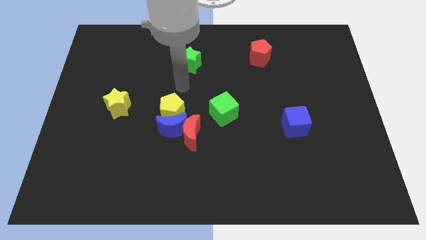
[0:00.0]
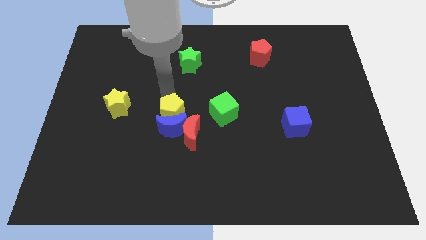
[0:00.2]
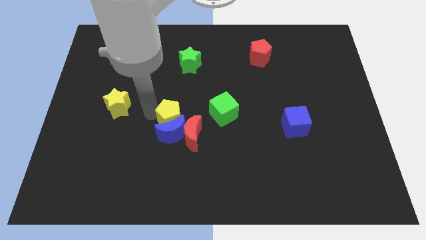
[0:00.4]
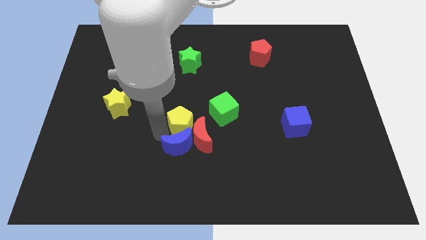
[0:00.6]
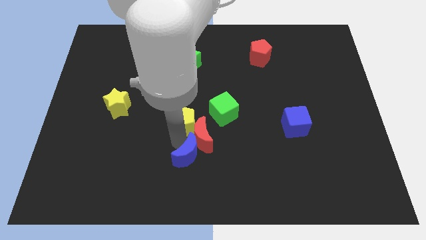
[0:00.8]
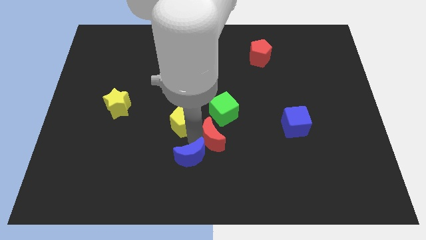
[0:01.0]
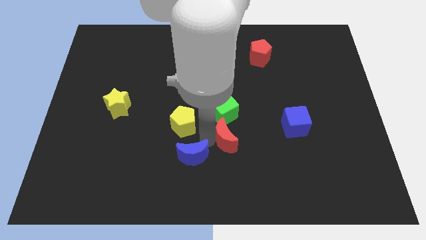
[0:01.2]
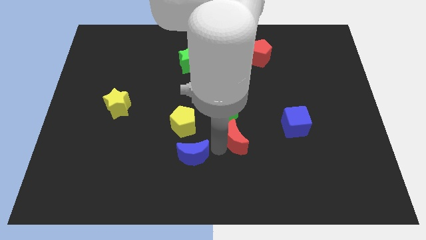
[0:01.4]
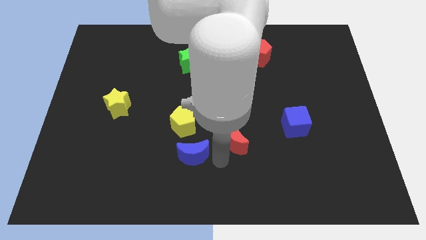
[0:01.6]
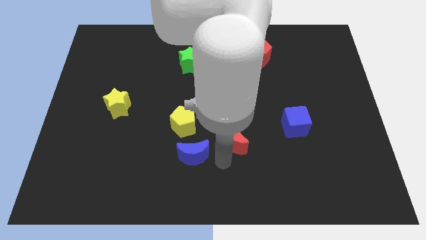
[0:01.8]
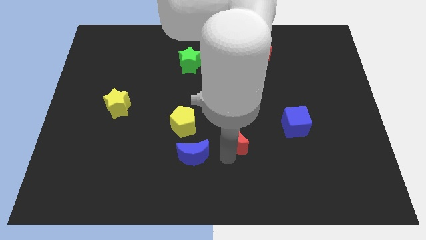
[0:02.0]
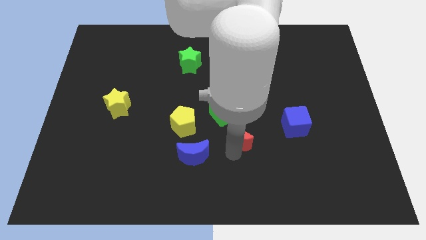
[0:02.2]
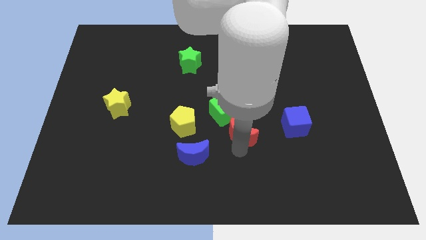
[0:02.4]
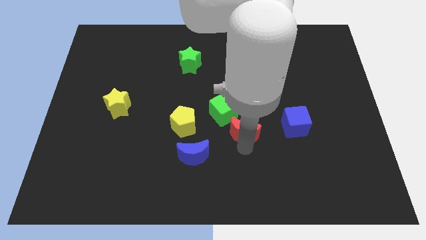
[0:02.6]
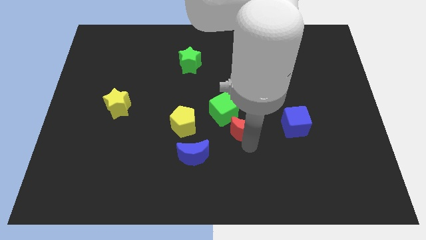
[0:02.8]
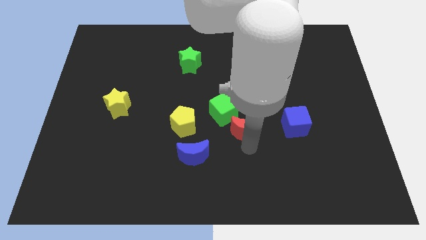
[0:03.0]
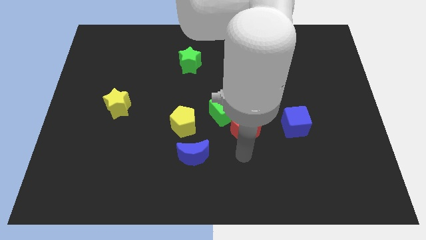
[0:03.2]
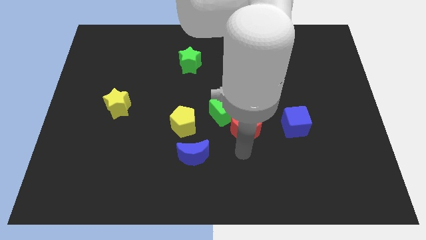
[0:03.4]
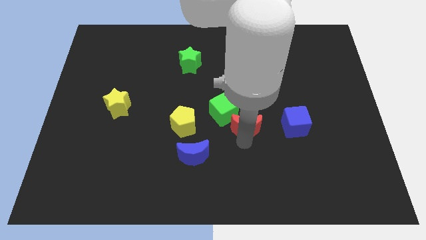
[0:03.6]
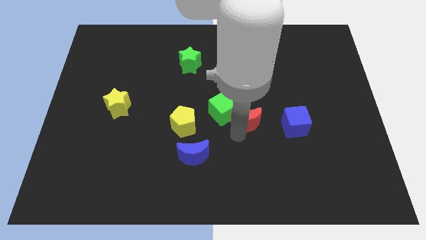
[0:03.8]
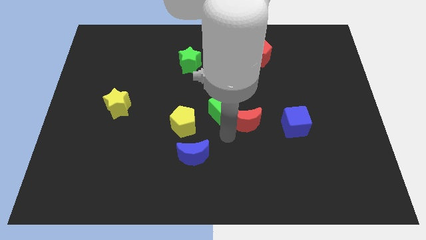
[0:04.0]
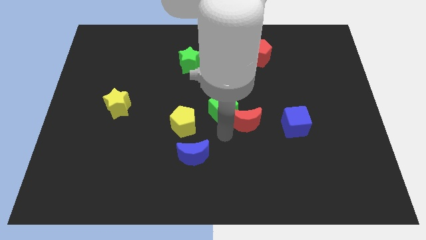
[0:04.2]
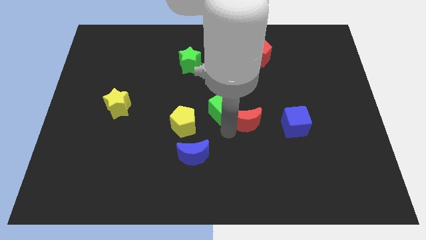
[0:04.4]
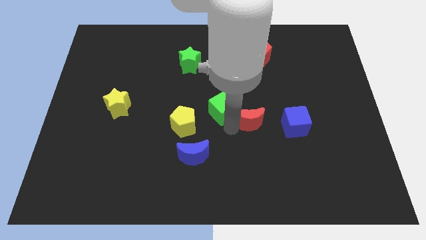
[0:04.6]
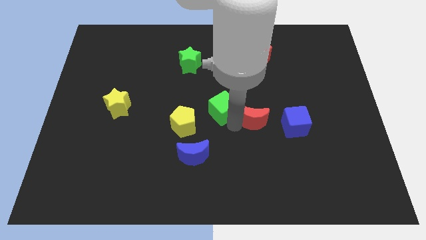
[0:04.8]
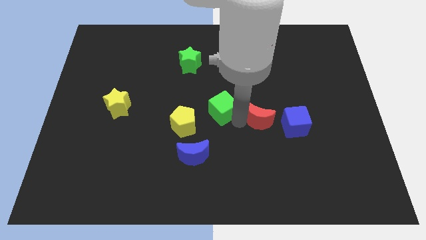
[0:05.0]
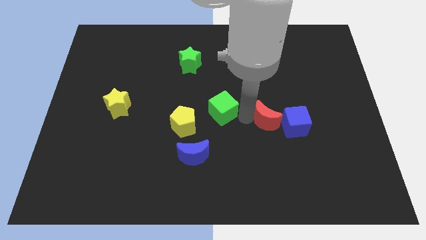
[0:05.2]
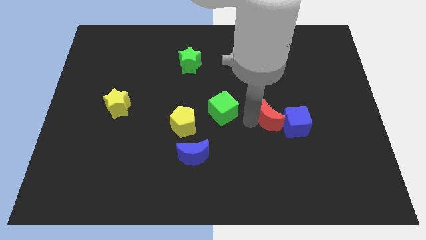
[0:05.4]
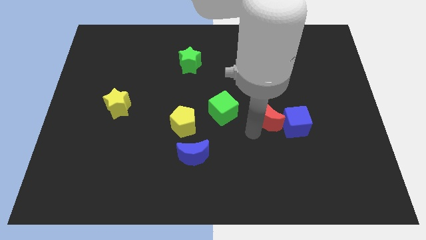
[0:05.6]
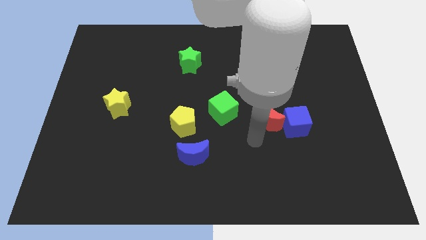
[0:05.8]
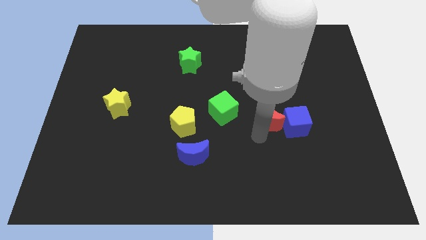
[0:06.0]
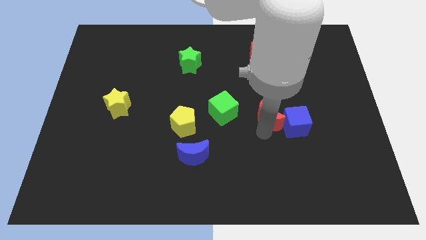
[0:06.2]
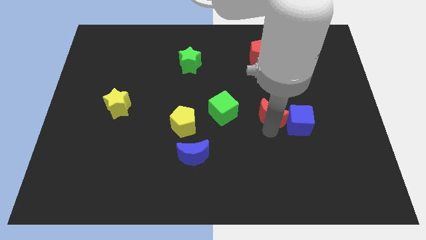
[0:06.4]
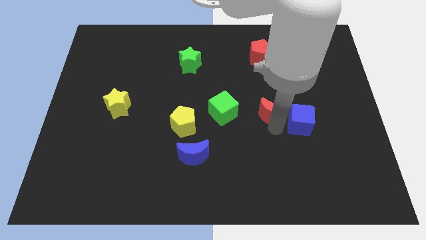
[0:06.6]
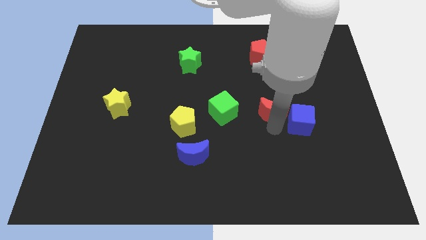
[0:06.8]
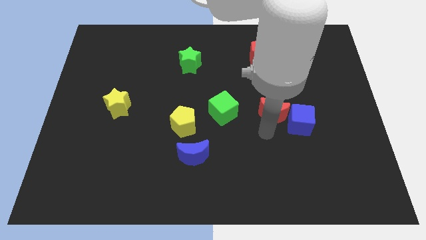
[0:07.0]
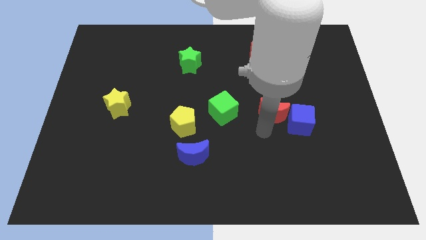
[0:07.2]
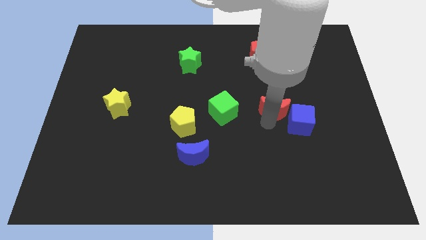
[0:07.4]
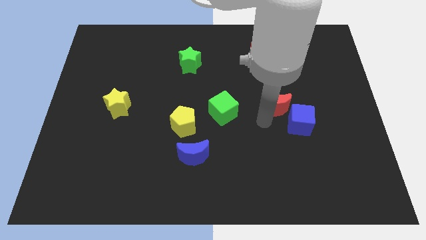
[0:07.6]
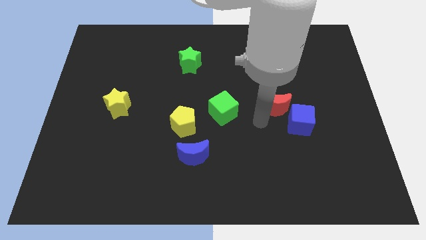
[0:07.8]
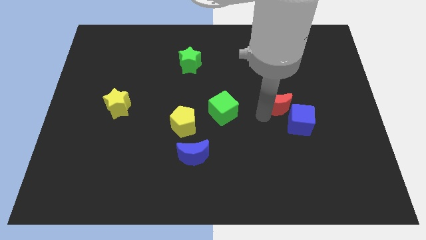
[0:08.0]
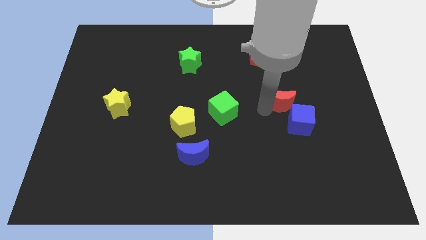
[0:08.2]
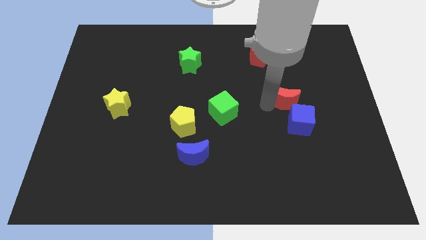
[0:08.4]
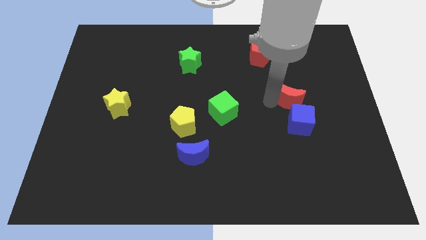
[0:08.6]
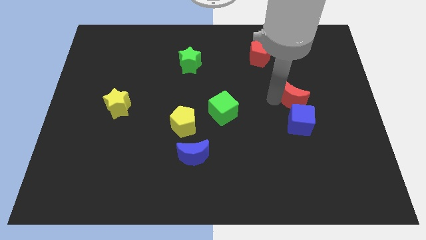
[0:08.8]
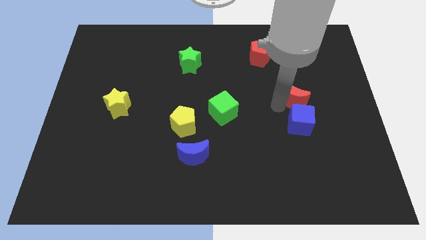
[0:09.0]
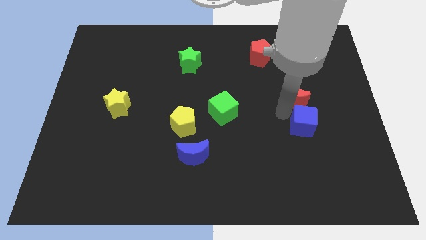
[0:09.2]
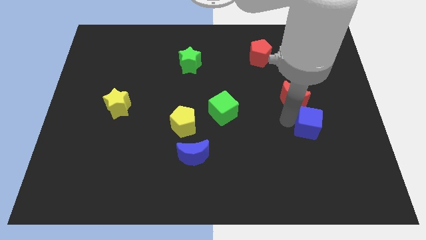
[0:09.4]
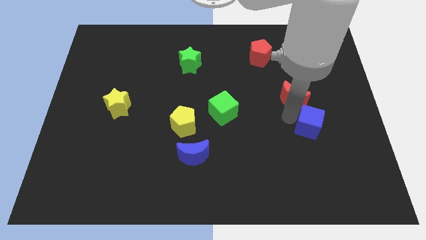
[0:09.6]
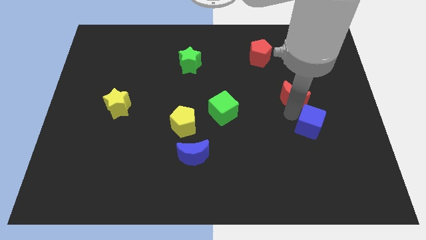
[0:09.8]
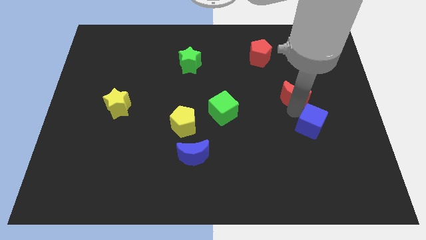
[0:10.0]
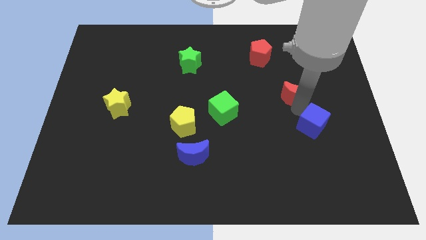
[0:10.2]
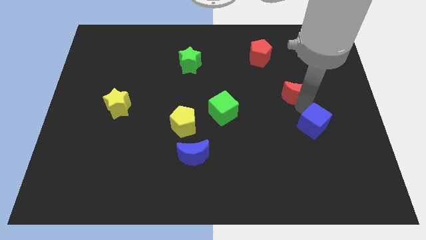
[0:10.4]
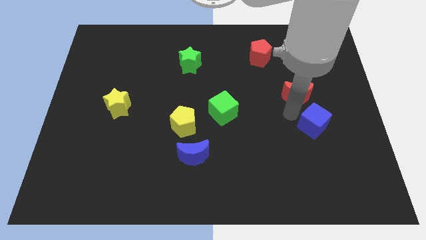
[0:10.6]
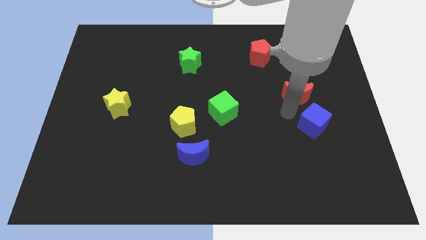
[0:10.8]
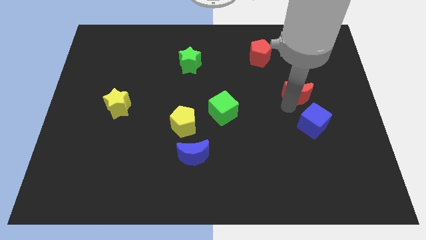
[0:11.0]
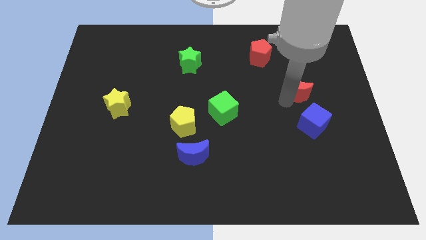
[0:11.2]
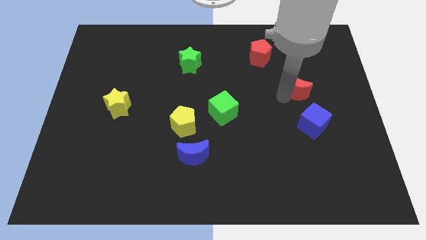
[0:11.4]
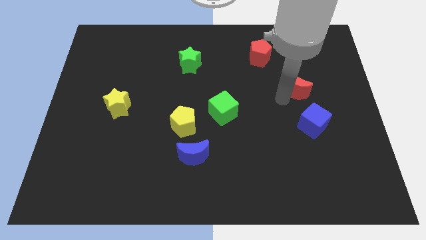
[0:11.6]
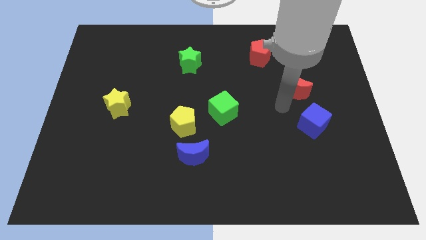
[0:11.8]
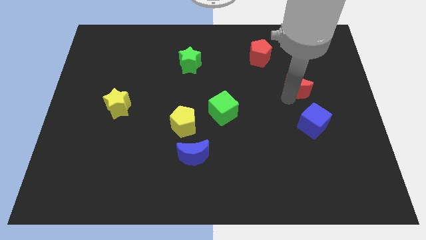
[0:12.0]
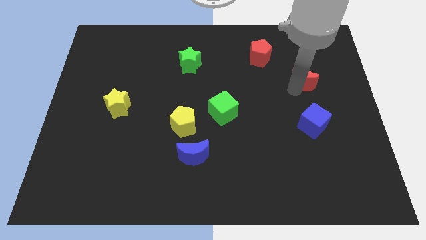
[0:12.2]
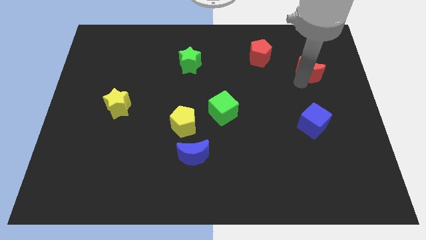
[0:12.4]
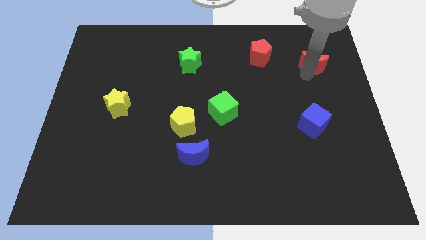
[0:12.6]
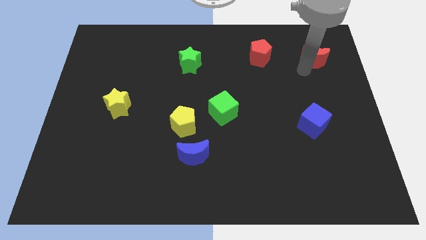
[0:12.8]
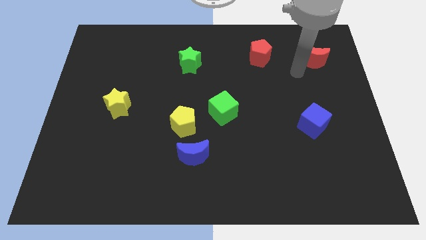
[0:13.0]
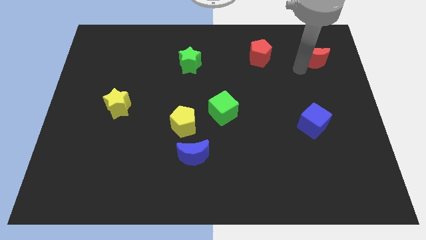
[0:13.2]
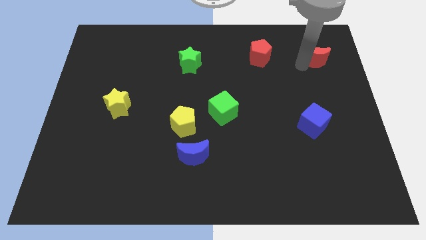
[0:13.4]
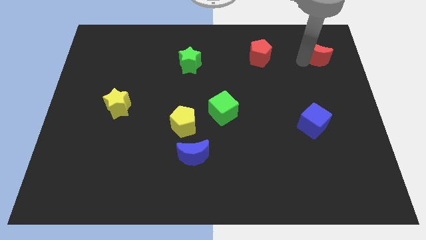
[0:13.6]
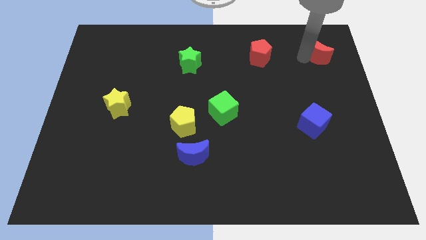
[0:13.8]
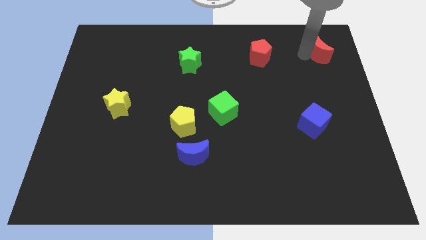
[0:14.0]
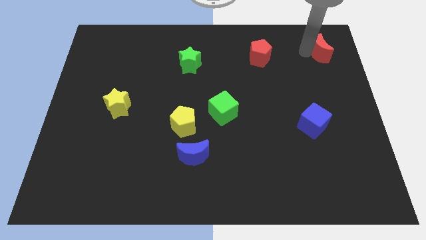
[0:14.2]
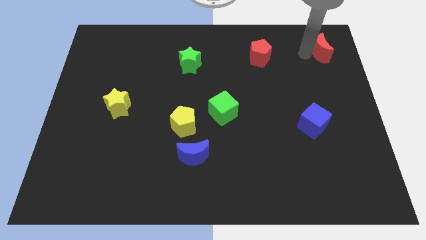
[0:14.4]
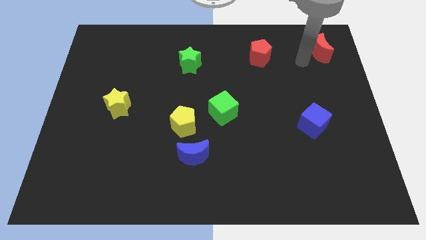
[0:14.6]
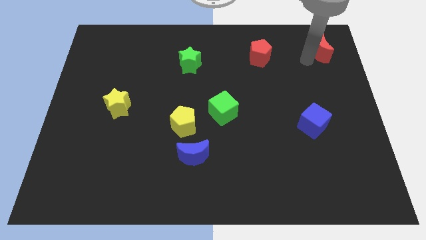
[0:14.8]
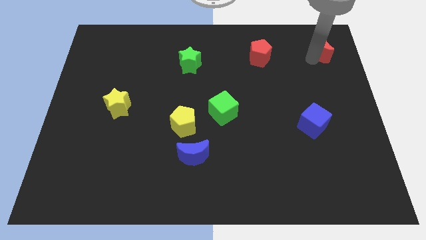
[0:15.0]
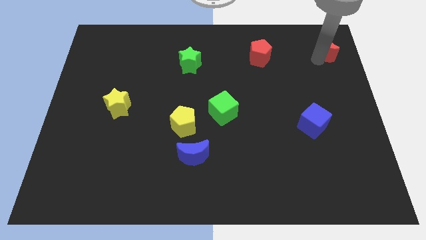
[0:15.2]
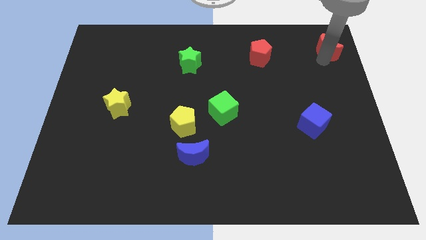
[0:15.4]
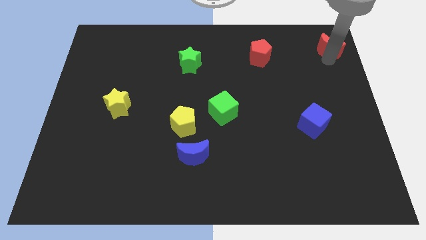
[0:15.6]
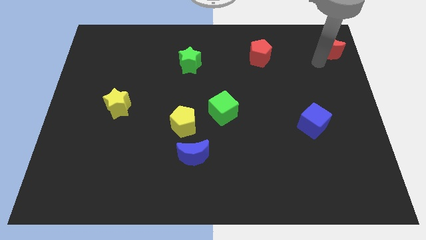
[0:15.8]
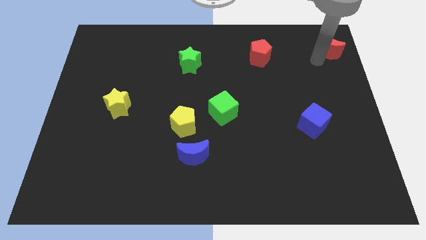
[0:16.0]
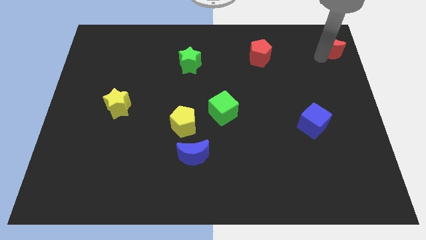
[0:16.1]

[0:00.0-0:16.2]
push the red moon to the top right
